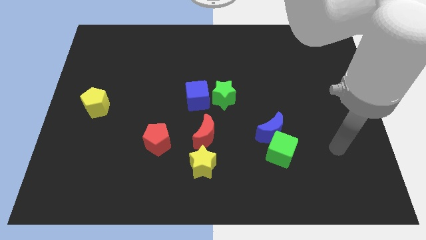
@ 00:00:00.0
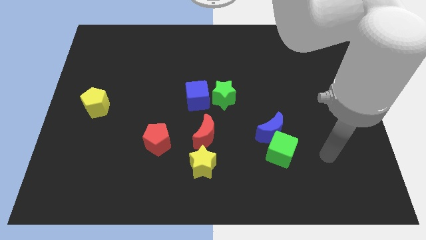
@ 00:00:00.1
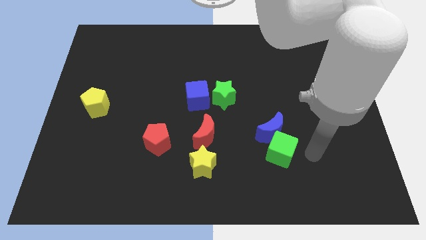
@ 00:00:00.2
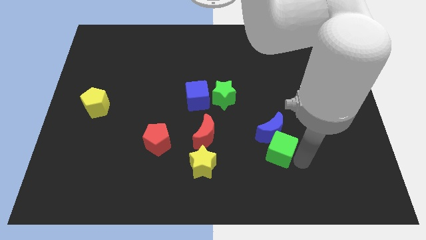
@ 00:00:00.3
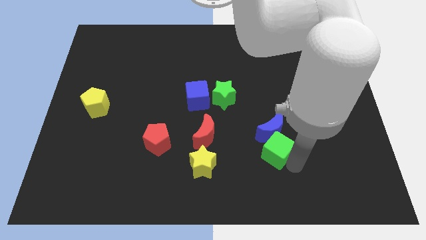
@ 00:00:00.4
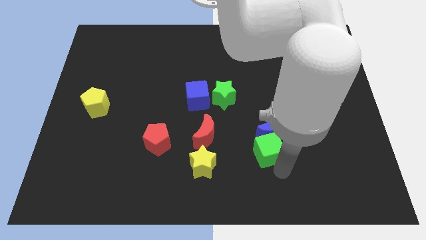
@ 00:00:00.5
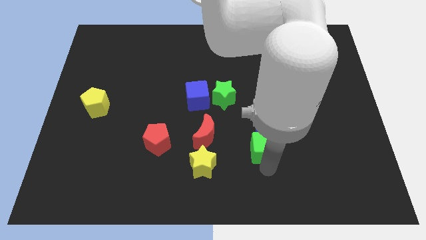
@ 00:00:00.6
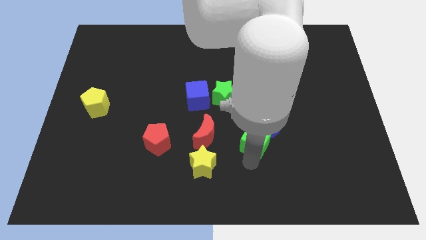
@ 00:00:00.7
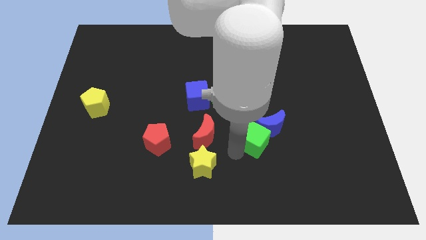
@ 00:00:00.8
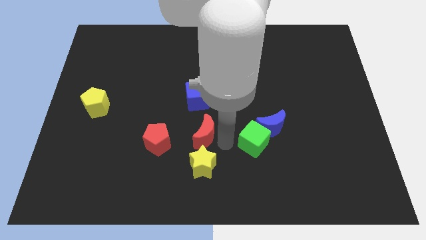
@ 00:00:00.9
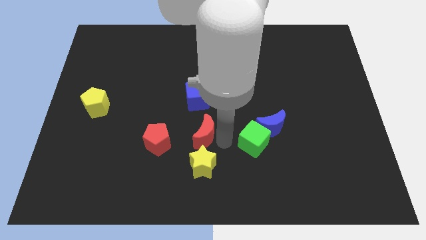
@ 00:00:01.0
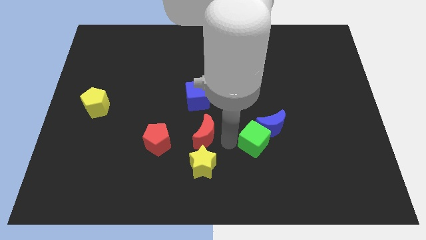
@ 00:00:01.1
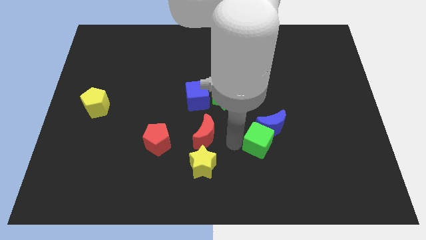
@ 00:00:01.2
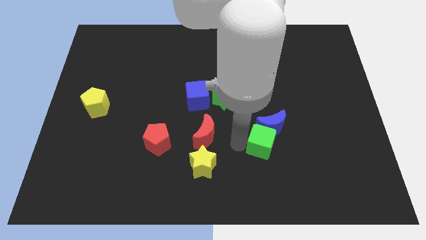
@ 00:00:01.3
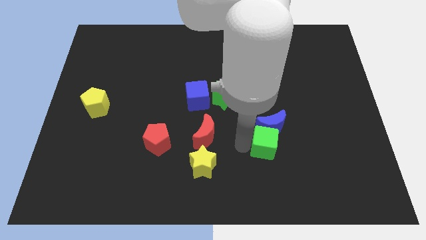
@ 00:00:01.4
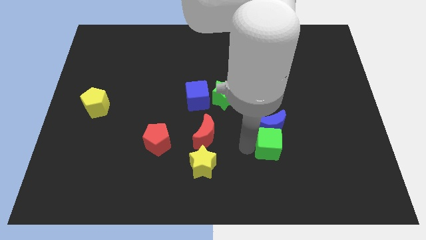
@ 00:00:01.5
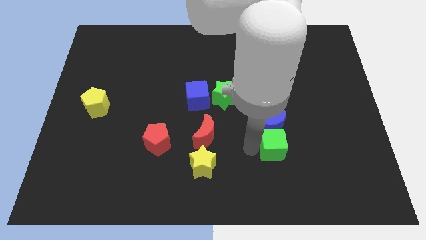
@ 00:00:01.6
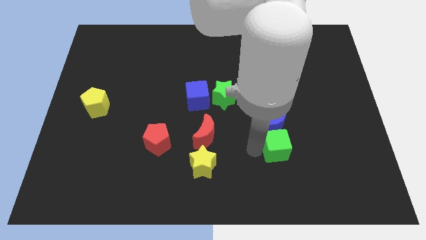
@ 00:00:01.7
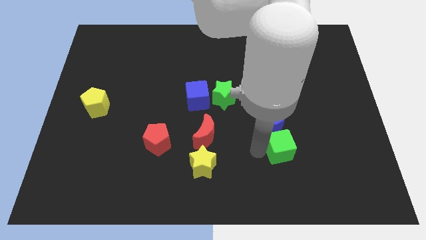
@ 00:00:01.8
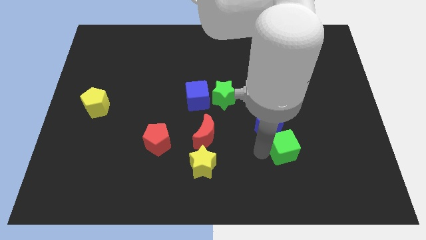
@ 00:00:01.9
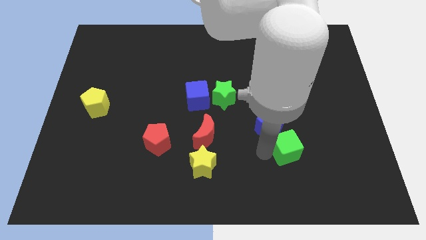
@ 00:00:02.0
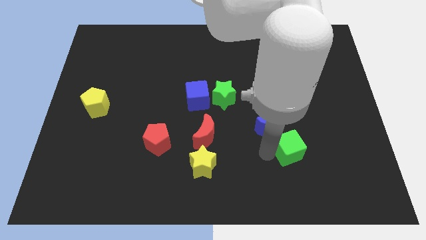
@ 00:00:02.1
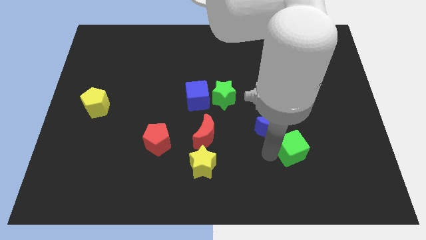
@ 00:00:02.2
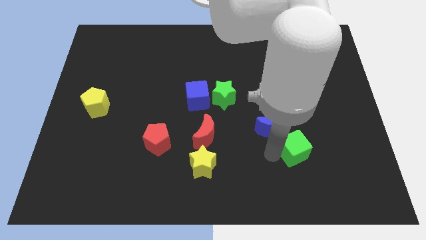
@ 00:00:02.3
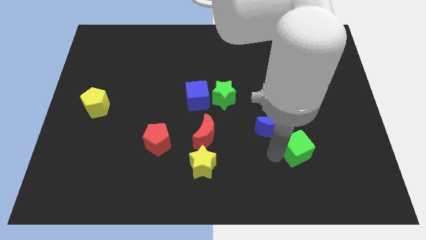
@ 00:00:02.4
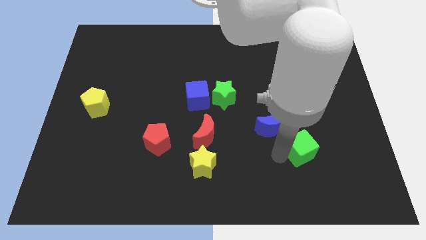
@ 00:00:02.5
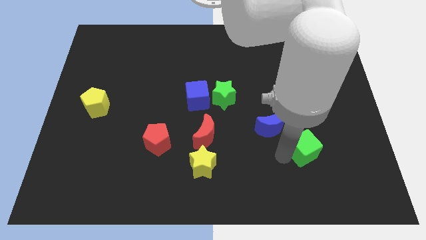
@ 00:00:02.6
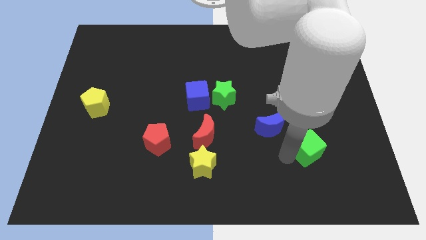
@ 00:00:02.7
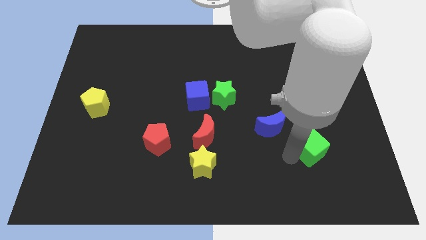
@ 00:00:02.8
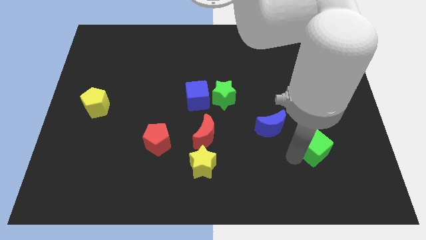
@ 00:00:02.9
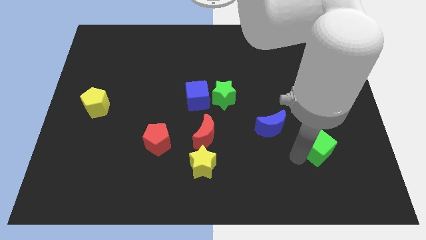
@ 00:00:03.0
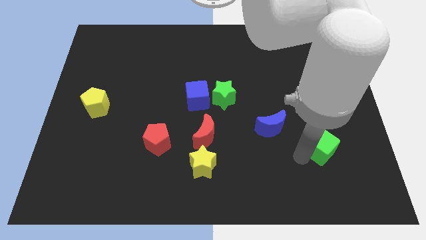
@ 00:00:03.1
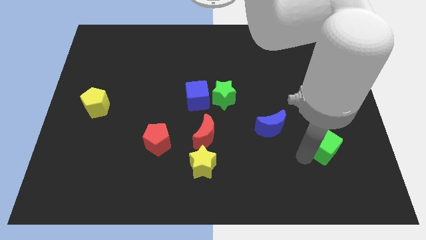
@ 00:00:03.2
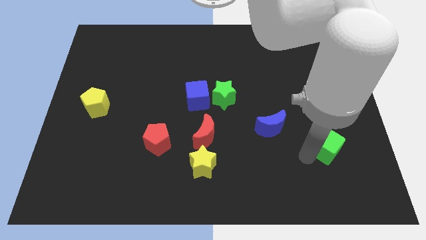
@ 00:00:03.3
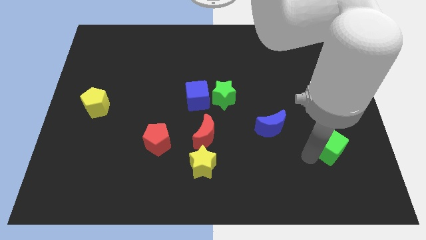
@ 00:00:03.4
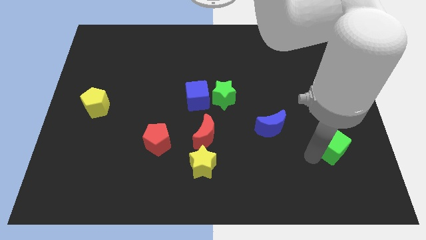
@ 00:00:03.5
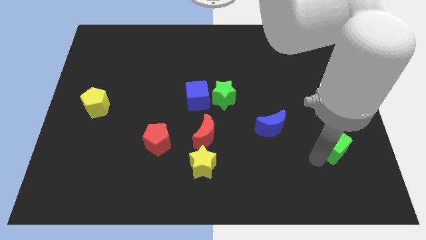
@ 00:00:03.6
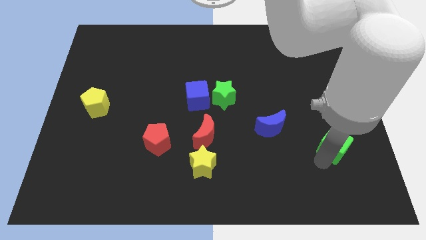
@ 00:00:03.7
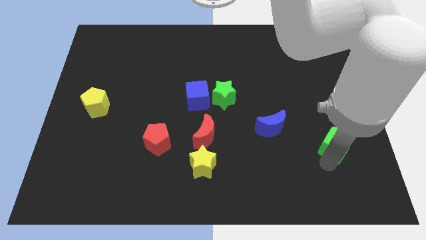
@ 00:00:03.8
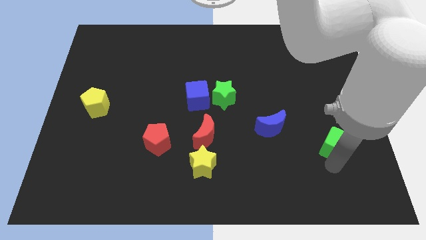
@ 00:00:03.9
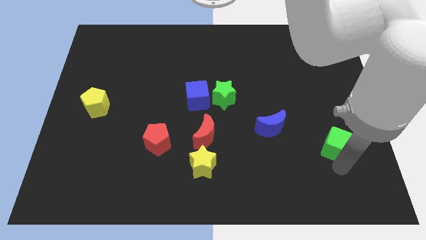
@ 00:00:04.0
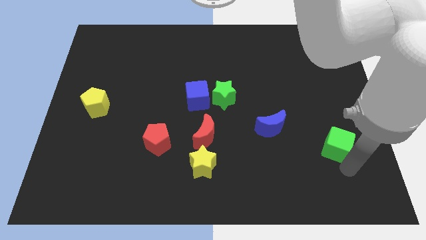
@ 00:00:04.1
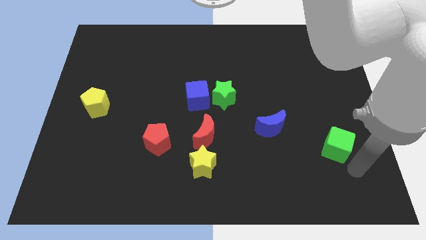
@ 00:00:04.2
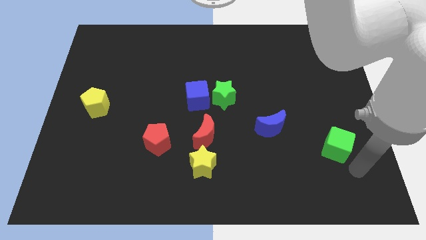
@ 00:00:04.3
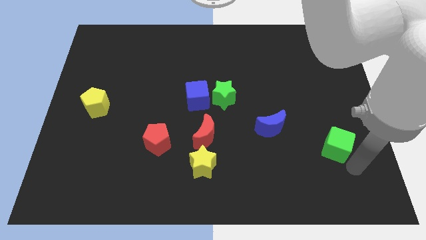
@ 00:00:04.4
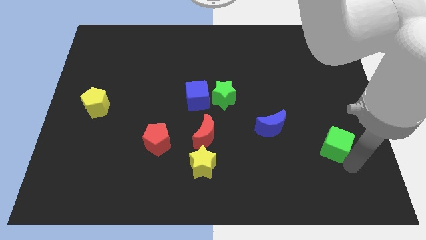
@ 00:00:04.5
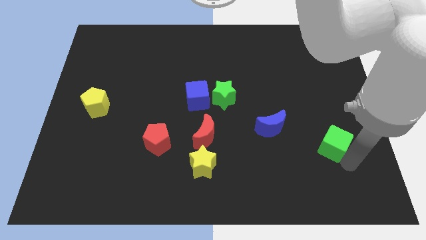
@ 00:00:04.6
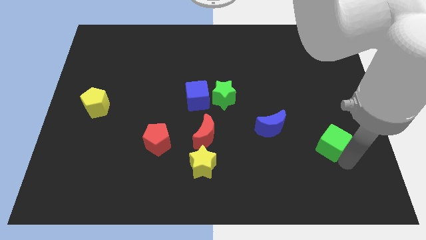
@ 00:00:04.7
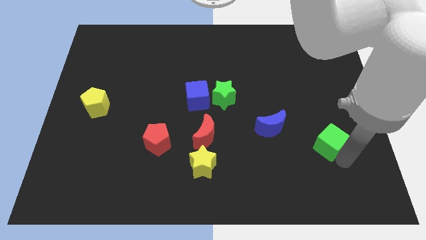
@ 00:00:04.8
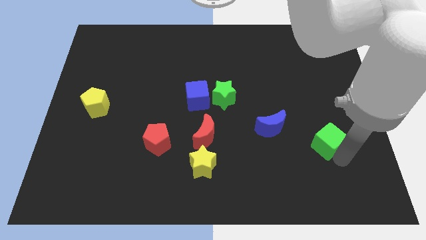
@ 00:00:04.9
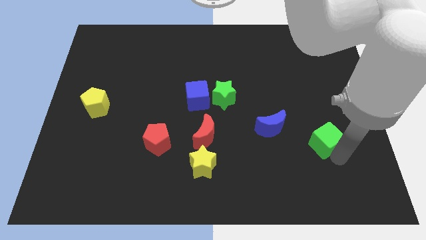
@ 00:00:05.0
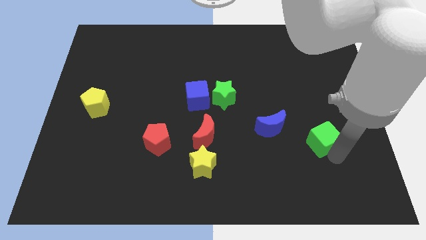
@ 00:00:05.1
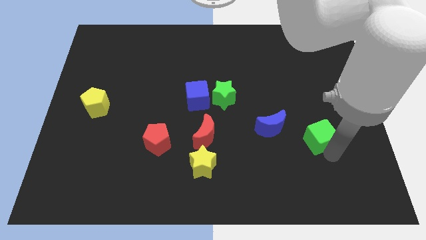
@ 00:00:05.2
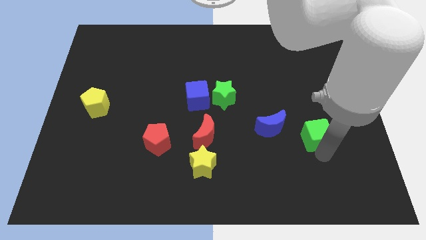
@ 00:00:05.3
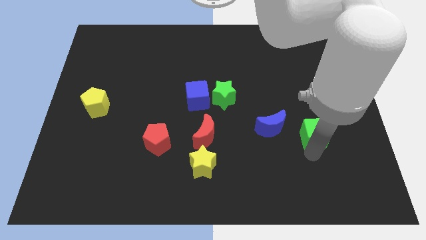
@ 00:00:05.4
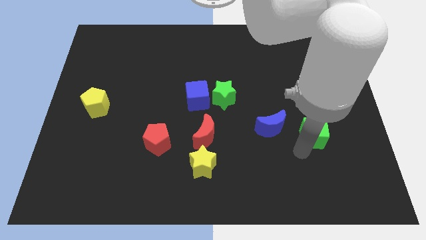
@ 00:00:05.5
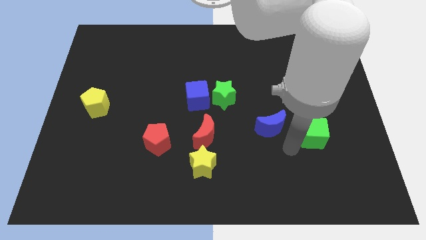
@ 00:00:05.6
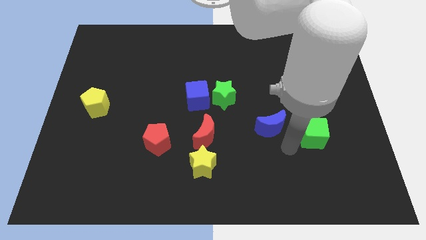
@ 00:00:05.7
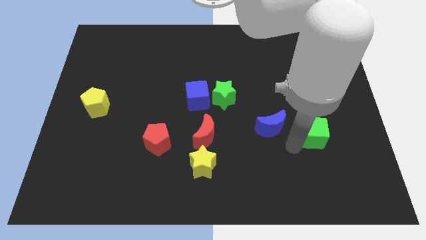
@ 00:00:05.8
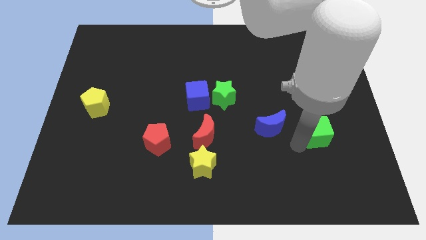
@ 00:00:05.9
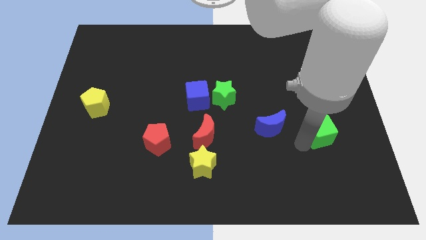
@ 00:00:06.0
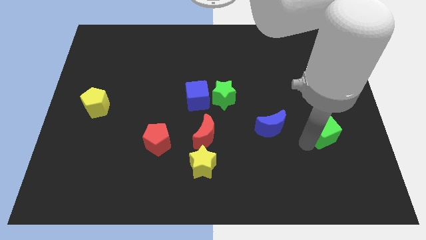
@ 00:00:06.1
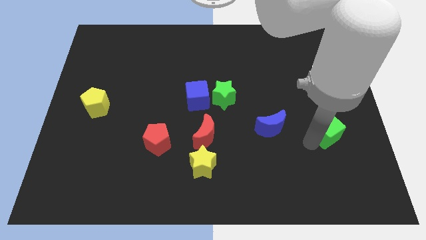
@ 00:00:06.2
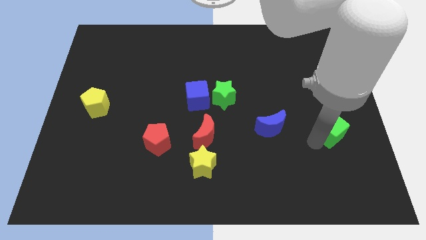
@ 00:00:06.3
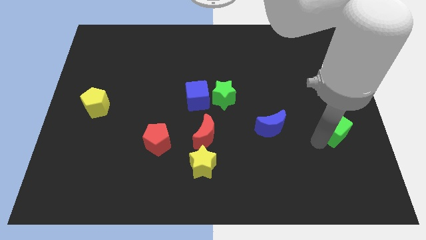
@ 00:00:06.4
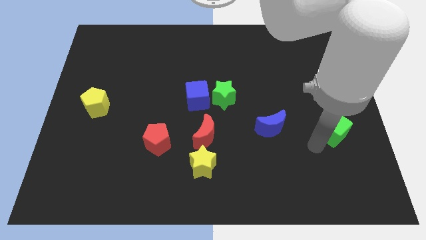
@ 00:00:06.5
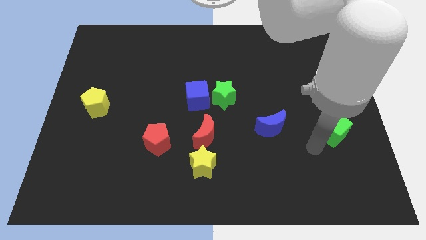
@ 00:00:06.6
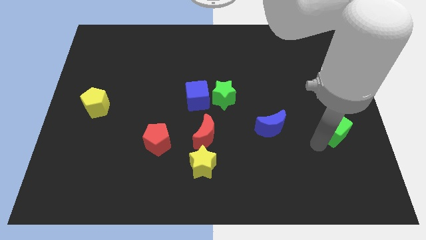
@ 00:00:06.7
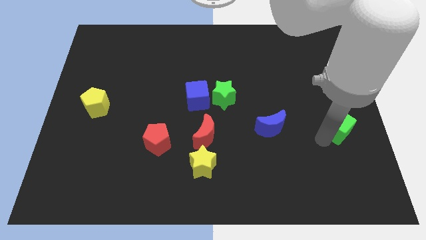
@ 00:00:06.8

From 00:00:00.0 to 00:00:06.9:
move the green cube to the right side of the board
